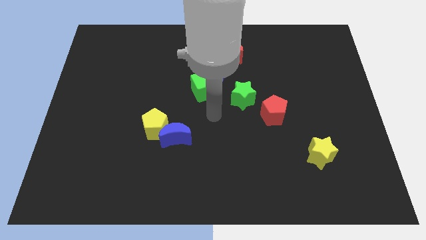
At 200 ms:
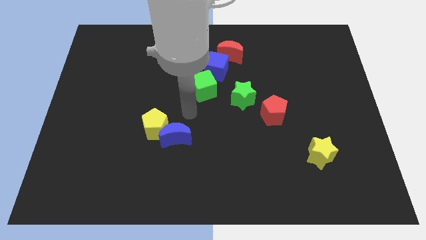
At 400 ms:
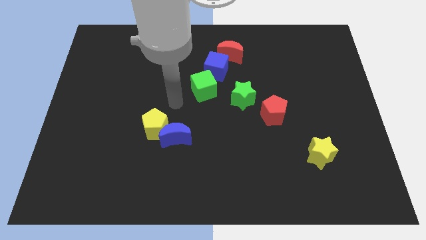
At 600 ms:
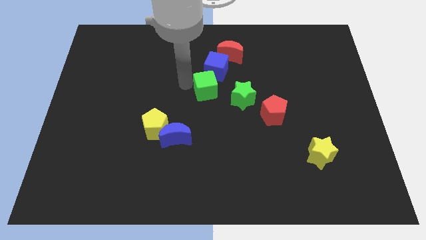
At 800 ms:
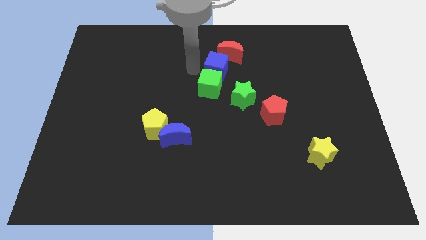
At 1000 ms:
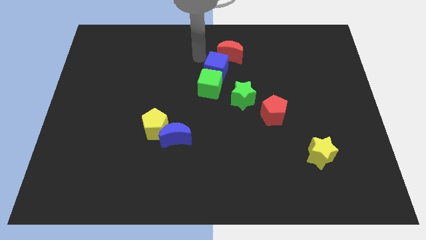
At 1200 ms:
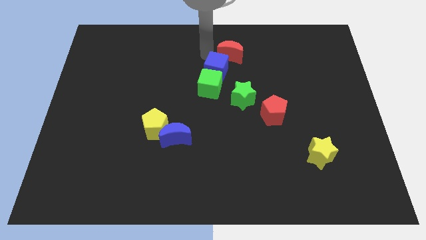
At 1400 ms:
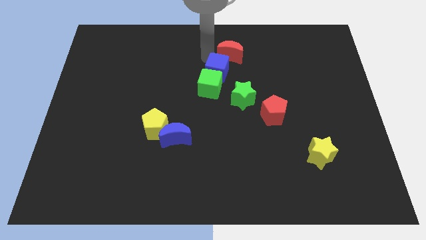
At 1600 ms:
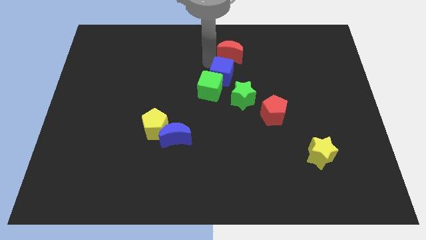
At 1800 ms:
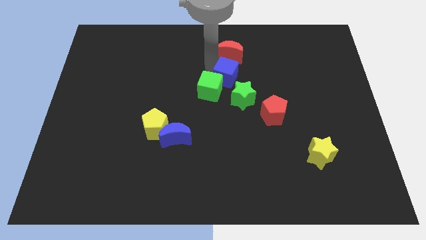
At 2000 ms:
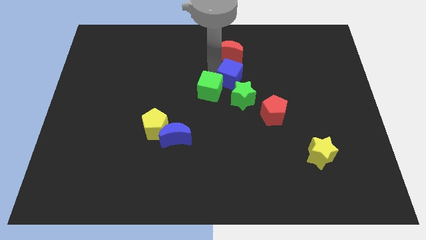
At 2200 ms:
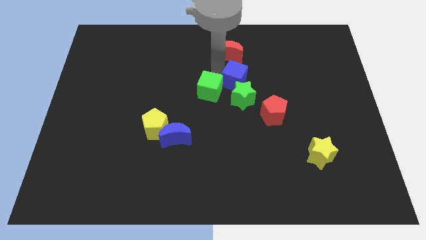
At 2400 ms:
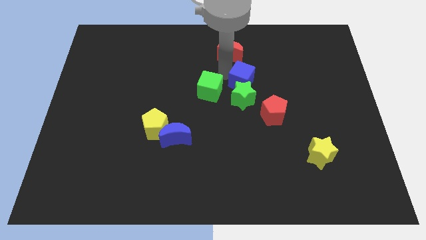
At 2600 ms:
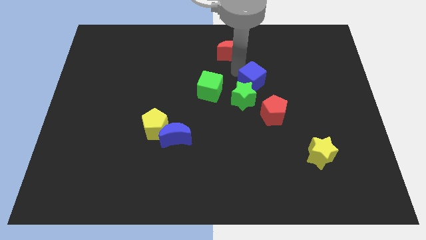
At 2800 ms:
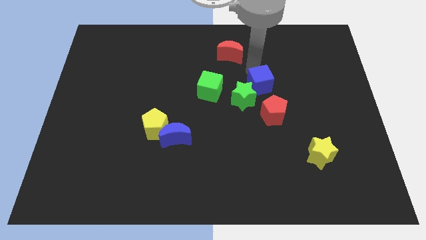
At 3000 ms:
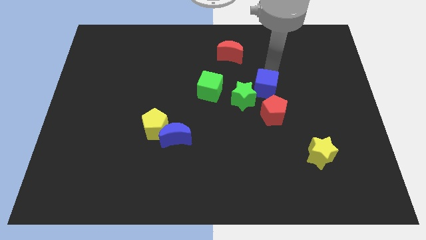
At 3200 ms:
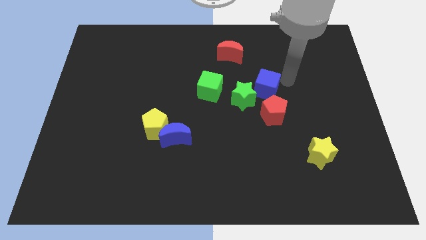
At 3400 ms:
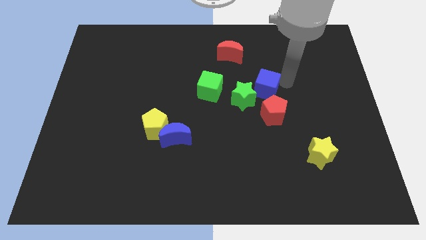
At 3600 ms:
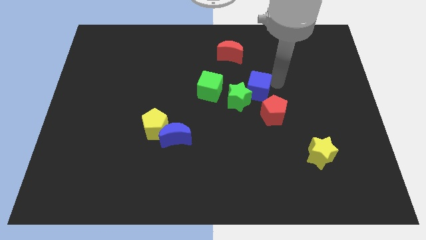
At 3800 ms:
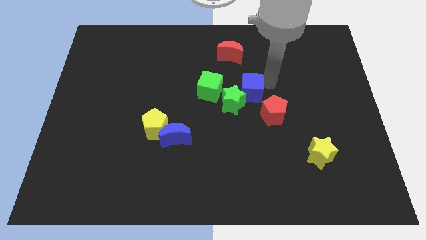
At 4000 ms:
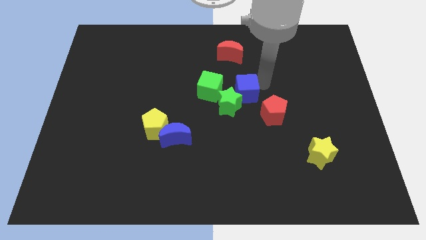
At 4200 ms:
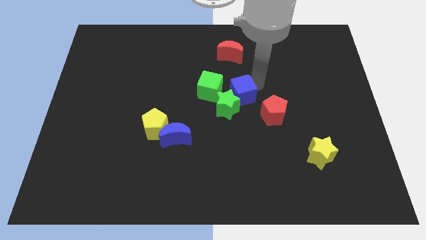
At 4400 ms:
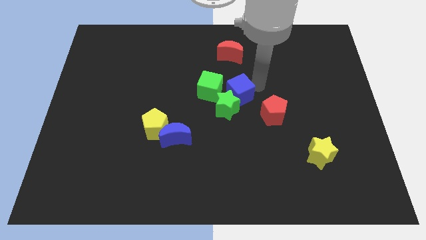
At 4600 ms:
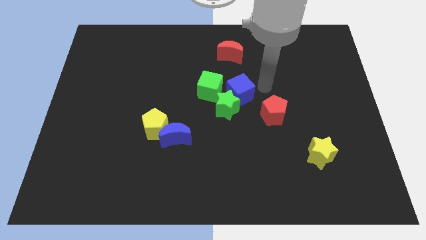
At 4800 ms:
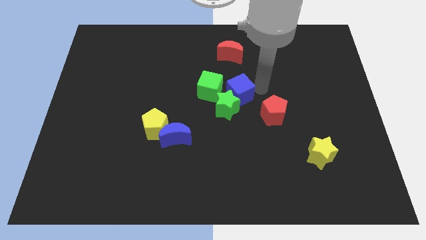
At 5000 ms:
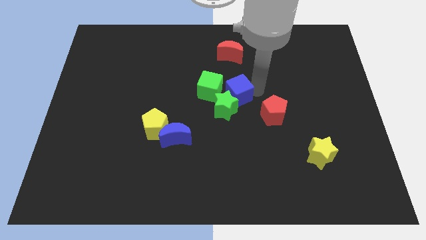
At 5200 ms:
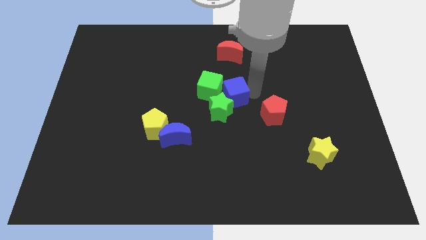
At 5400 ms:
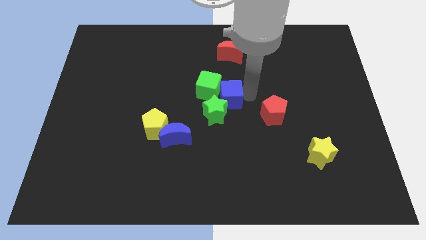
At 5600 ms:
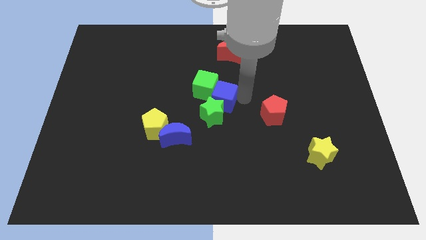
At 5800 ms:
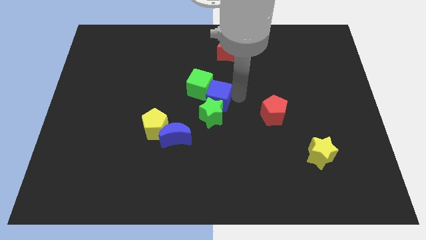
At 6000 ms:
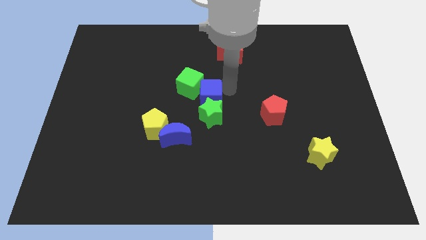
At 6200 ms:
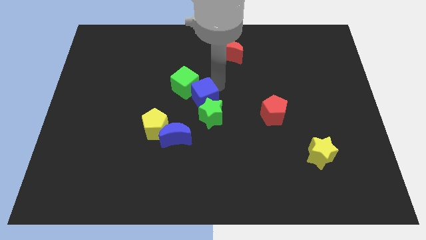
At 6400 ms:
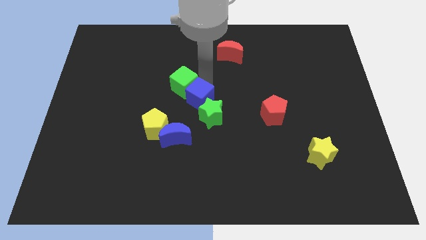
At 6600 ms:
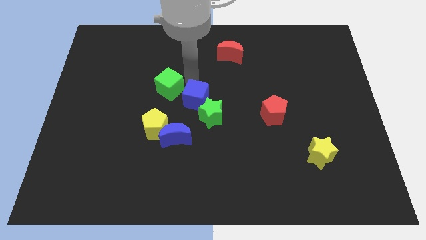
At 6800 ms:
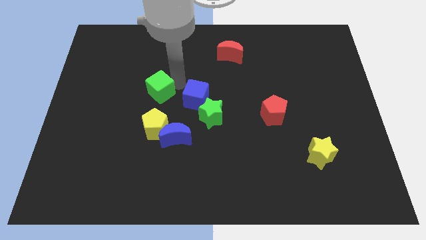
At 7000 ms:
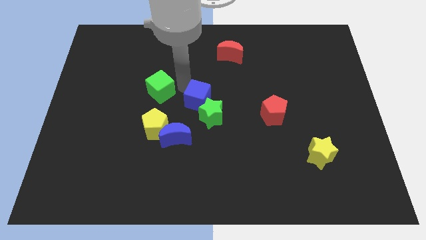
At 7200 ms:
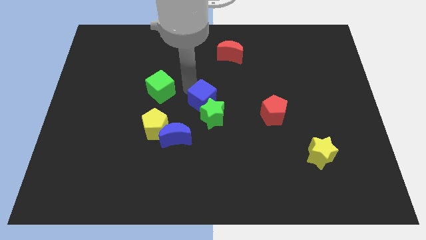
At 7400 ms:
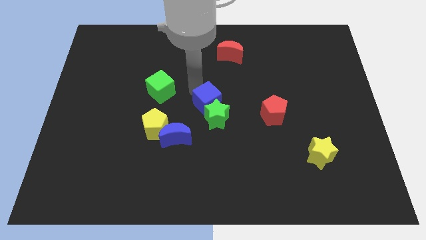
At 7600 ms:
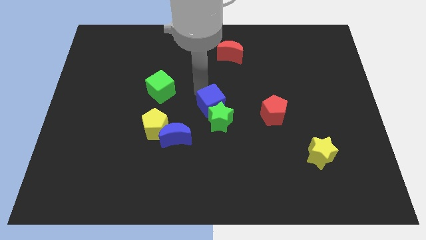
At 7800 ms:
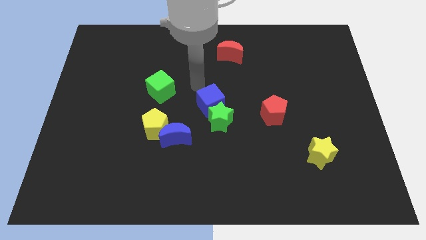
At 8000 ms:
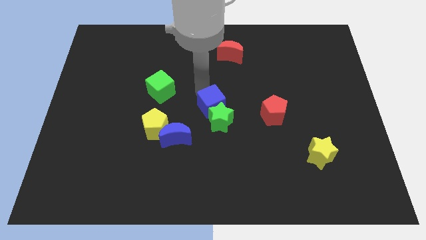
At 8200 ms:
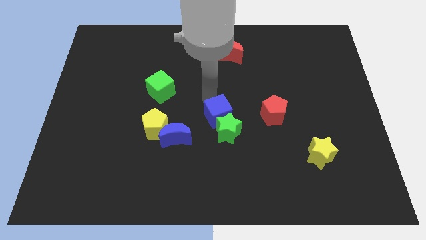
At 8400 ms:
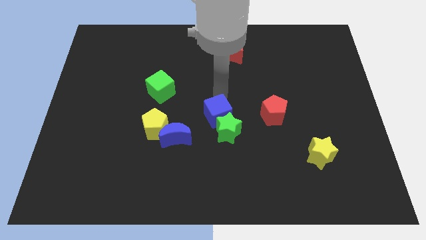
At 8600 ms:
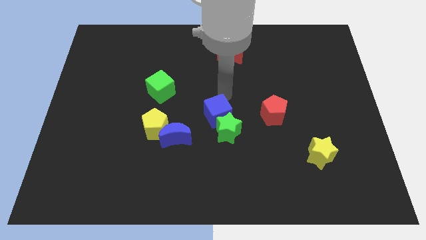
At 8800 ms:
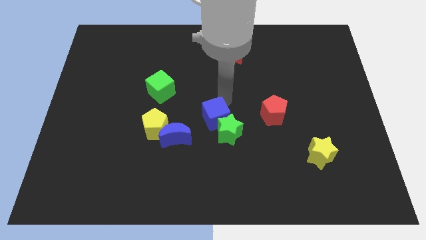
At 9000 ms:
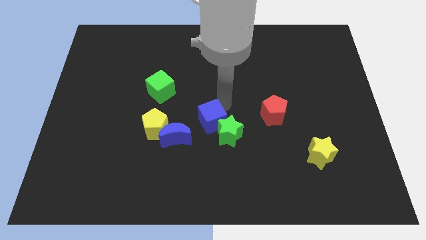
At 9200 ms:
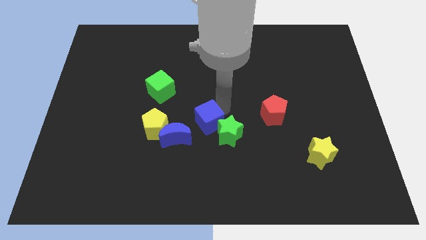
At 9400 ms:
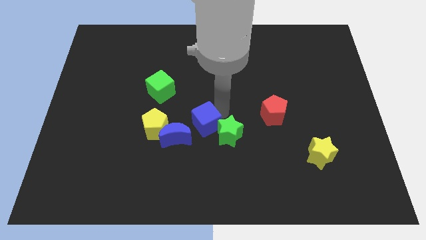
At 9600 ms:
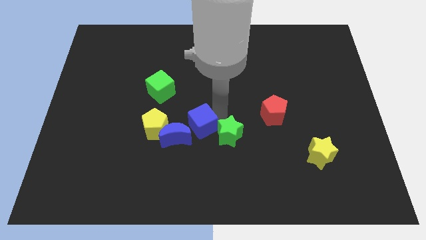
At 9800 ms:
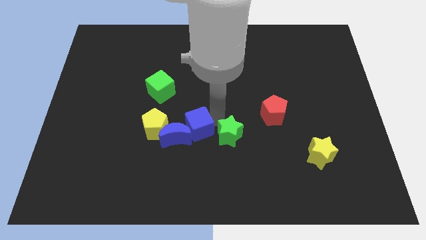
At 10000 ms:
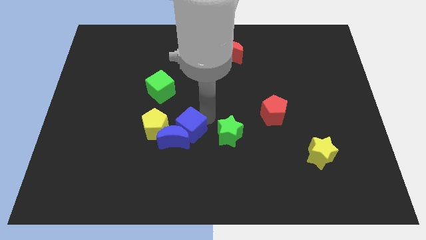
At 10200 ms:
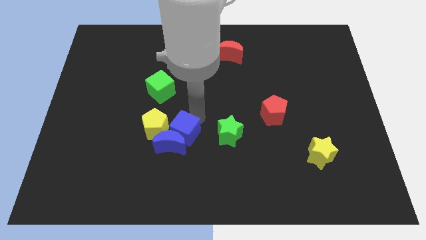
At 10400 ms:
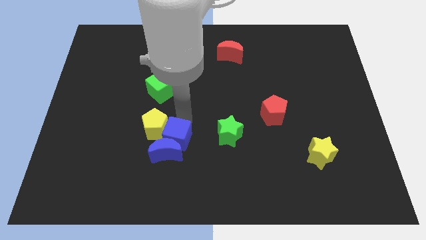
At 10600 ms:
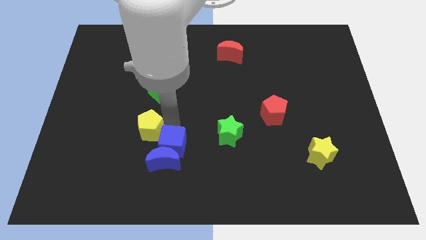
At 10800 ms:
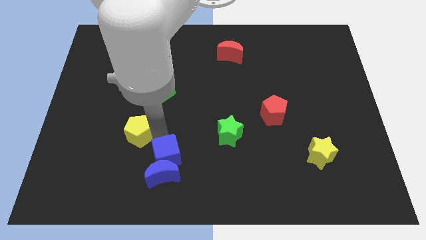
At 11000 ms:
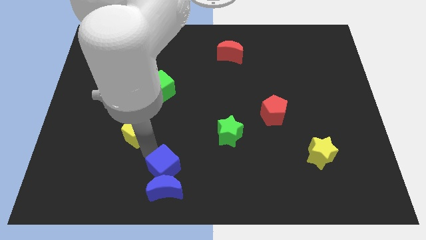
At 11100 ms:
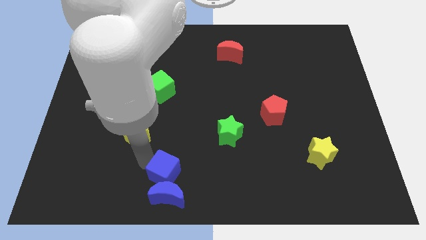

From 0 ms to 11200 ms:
put the blue cube to the bottom

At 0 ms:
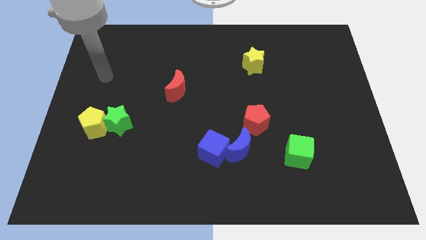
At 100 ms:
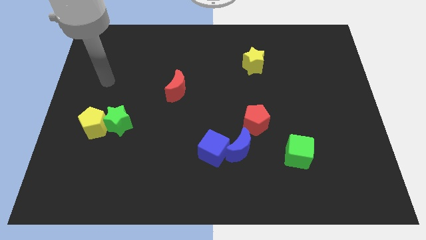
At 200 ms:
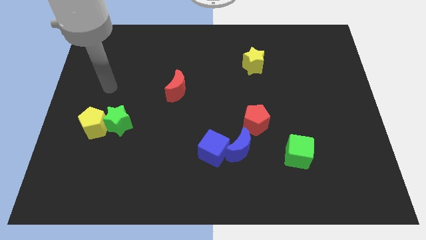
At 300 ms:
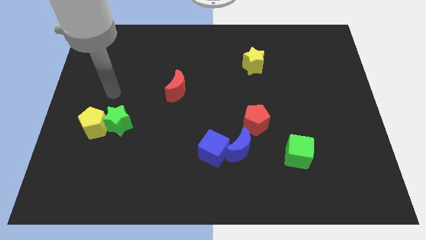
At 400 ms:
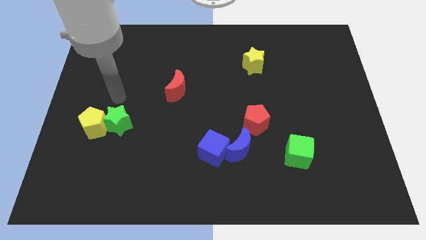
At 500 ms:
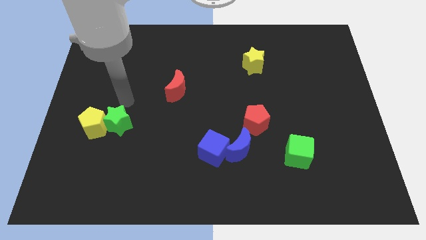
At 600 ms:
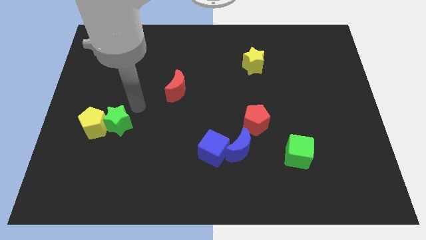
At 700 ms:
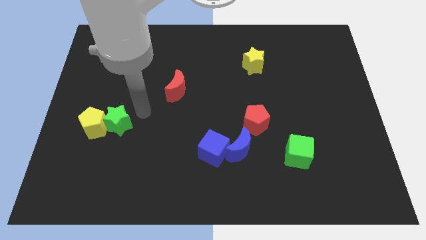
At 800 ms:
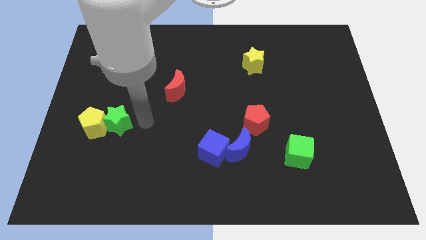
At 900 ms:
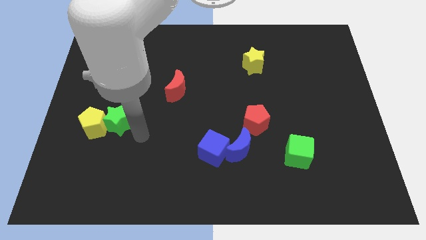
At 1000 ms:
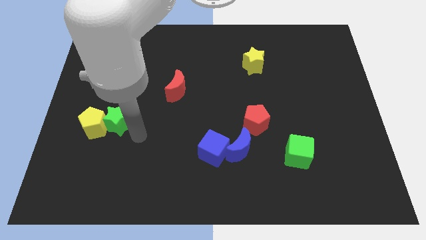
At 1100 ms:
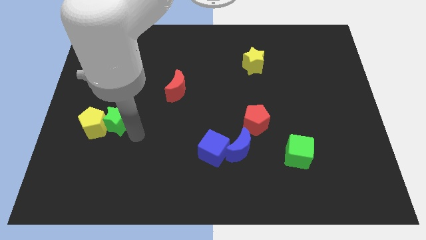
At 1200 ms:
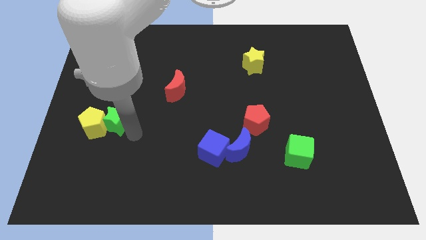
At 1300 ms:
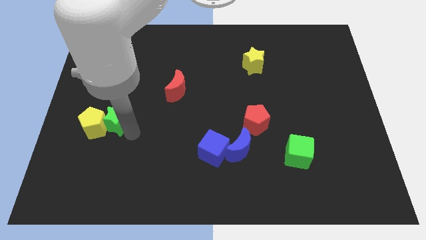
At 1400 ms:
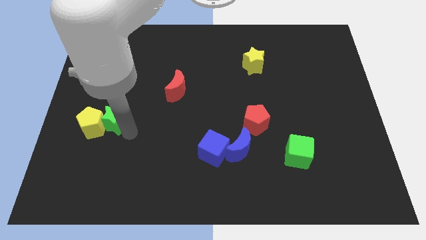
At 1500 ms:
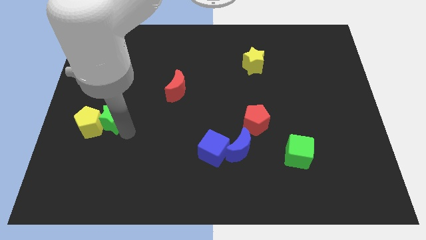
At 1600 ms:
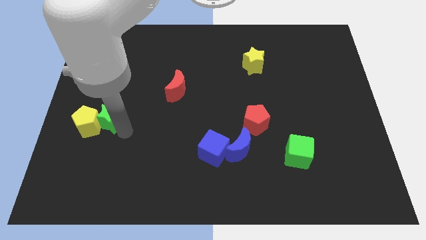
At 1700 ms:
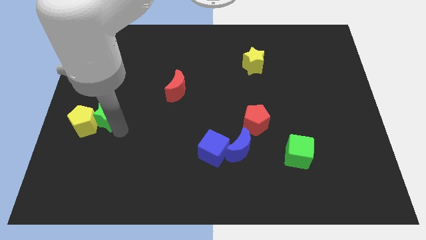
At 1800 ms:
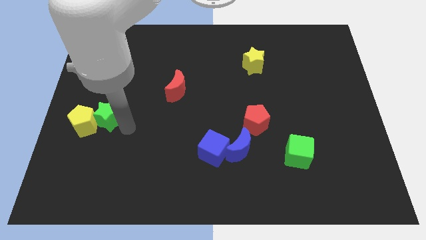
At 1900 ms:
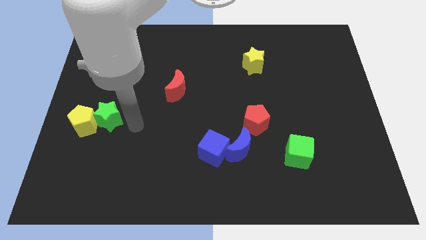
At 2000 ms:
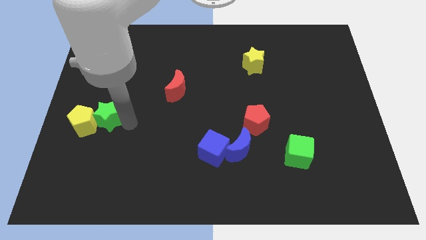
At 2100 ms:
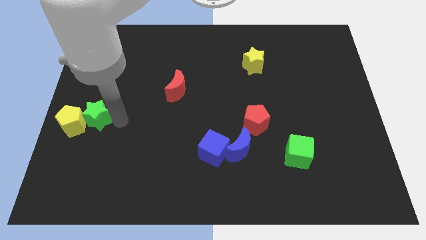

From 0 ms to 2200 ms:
push the green star to the center left
